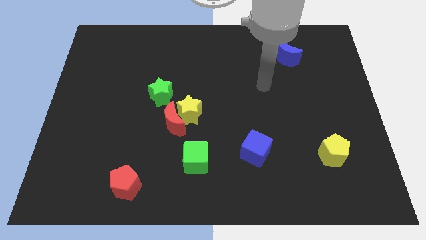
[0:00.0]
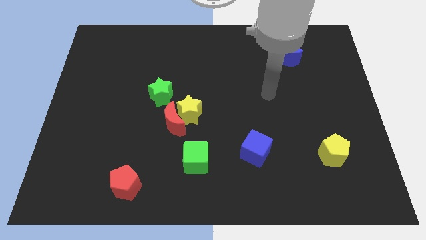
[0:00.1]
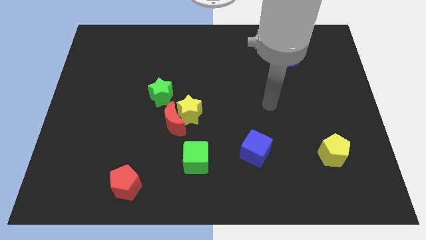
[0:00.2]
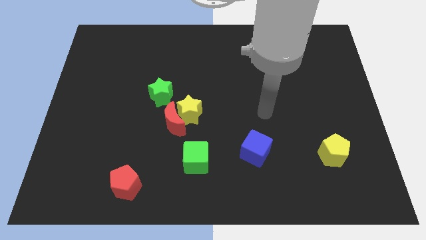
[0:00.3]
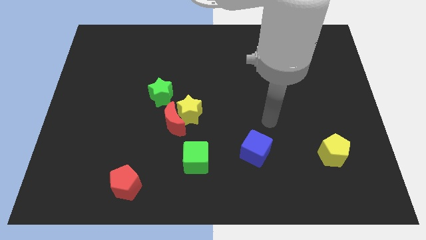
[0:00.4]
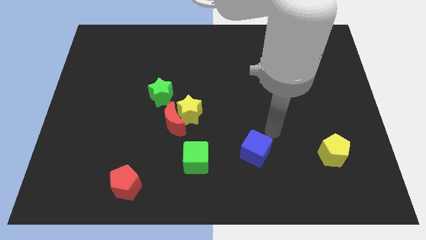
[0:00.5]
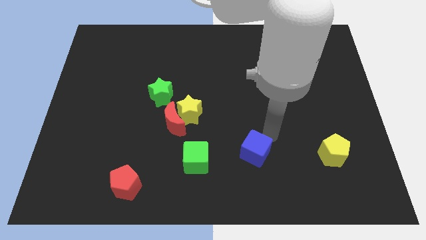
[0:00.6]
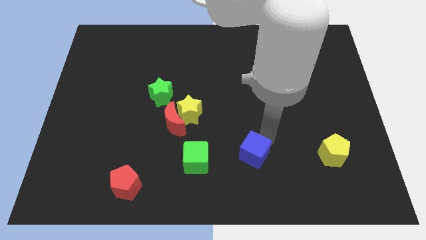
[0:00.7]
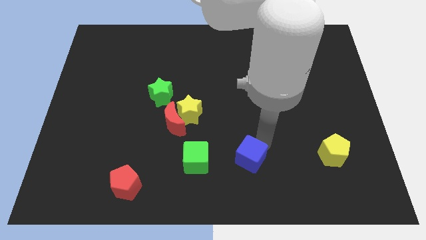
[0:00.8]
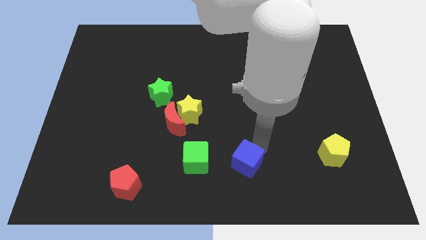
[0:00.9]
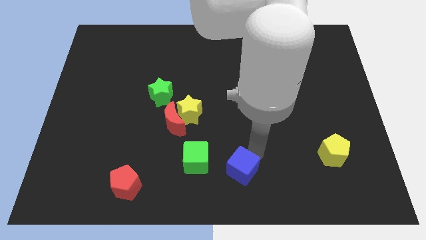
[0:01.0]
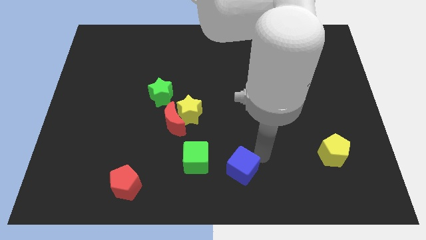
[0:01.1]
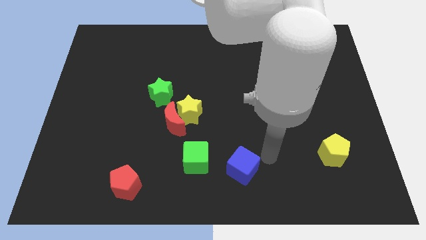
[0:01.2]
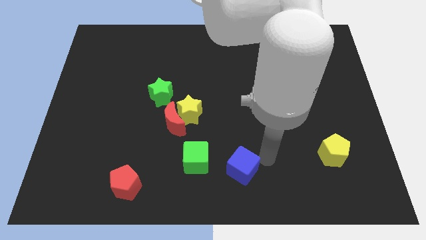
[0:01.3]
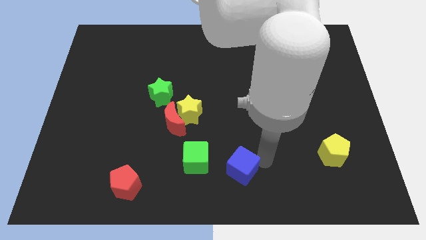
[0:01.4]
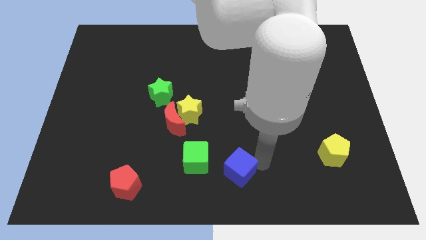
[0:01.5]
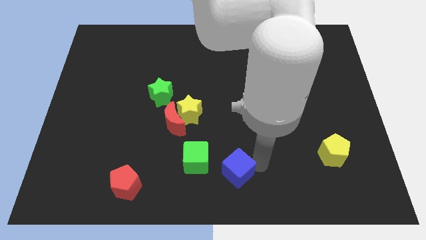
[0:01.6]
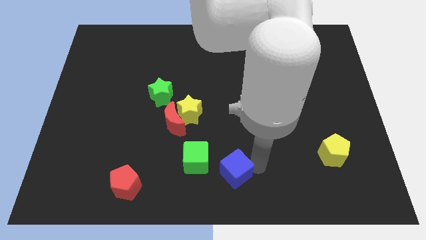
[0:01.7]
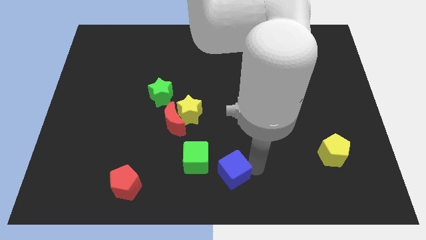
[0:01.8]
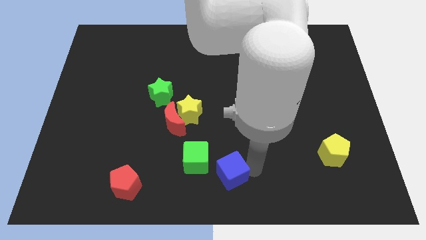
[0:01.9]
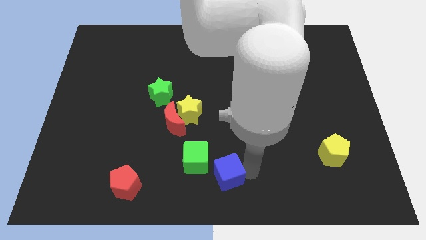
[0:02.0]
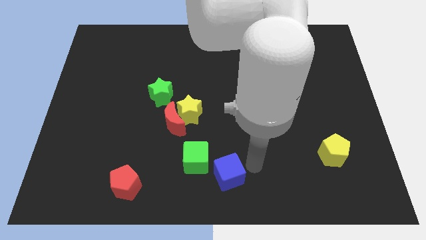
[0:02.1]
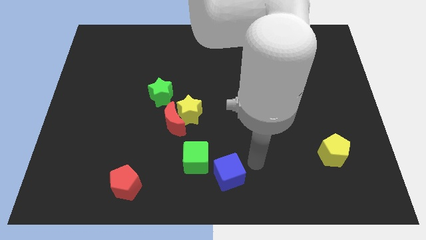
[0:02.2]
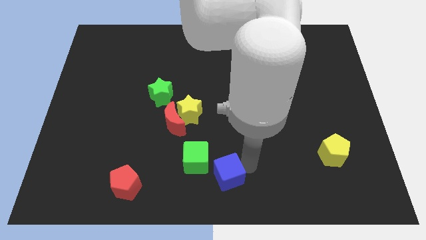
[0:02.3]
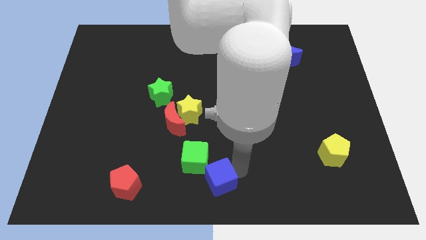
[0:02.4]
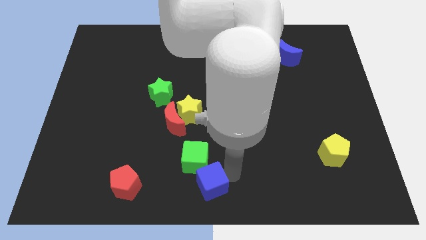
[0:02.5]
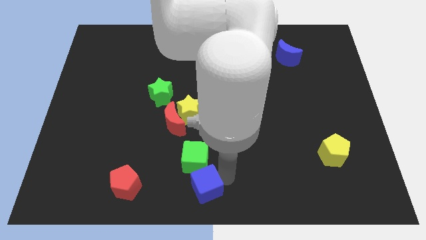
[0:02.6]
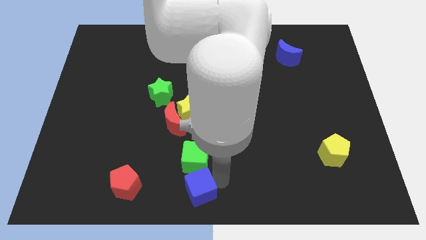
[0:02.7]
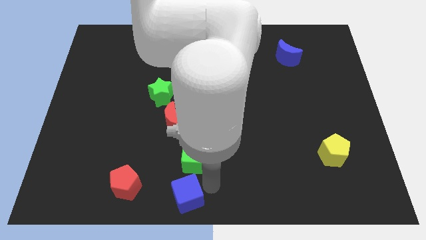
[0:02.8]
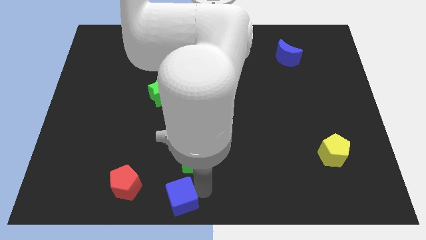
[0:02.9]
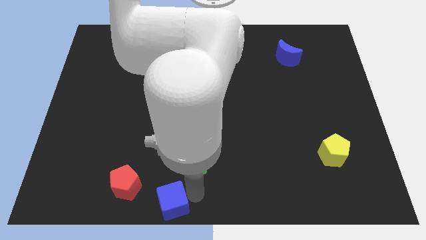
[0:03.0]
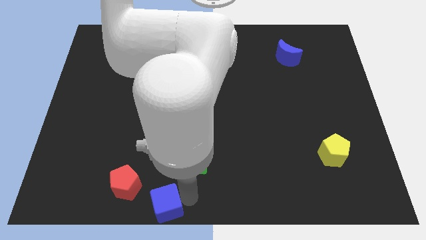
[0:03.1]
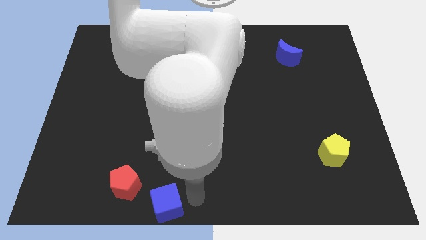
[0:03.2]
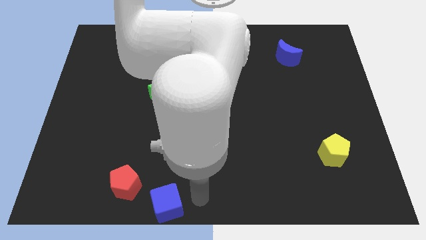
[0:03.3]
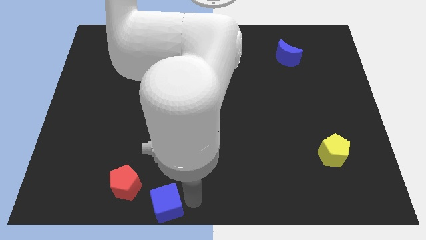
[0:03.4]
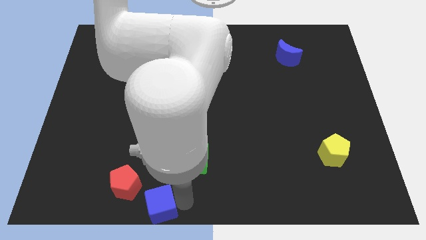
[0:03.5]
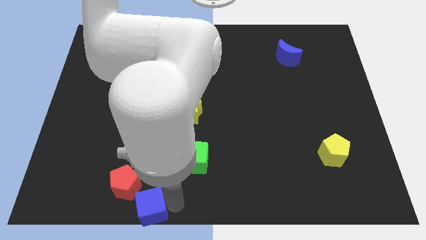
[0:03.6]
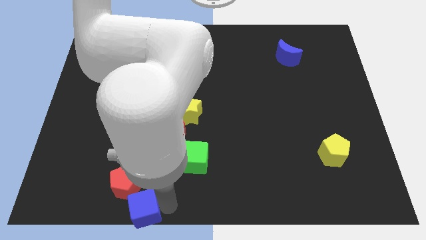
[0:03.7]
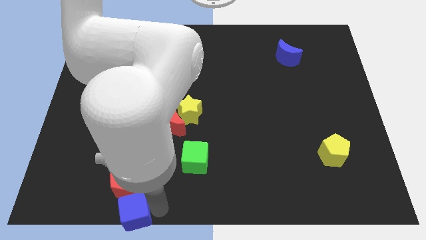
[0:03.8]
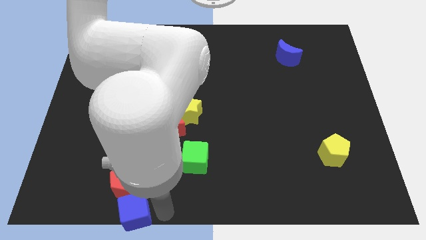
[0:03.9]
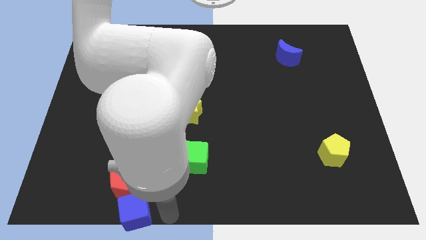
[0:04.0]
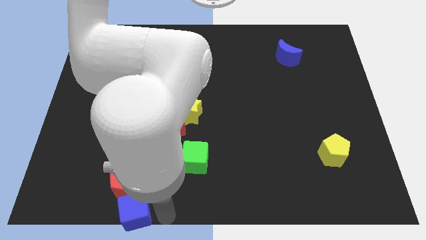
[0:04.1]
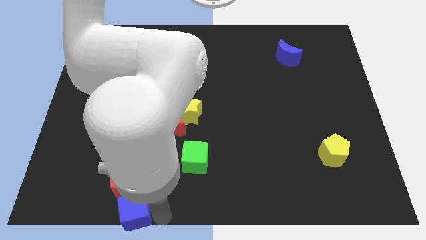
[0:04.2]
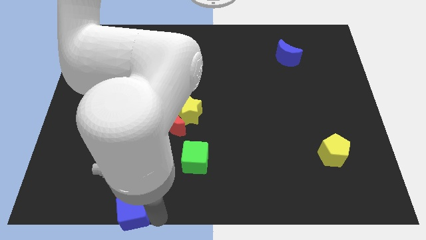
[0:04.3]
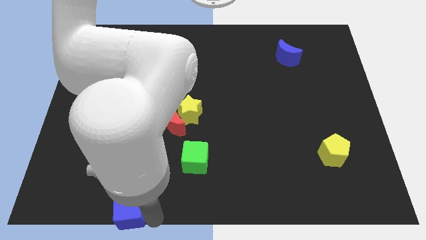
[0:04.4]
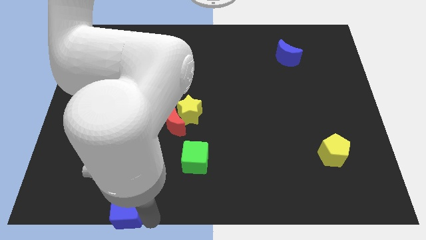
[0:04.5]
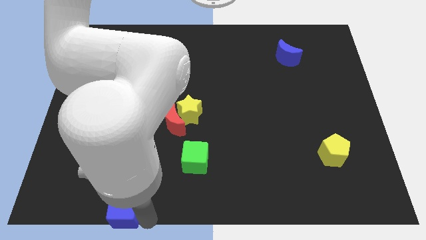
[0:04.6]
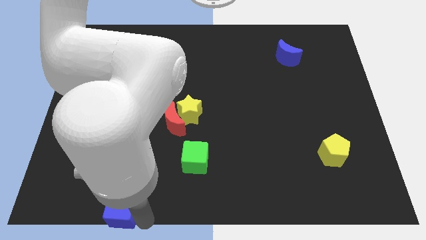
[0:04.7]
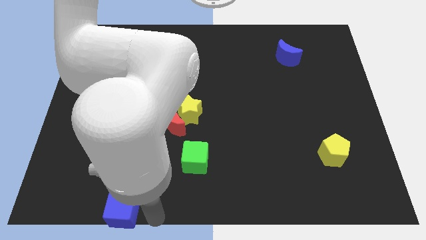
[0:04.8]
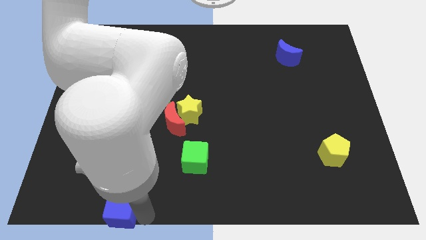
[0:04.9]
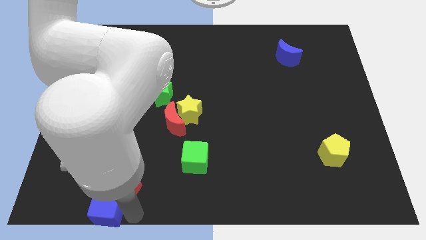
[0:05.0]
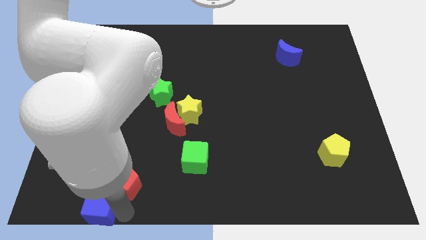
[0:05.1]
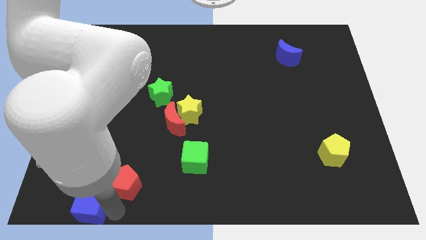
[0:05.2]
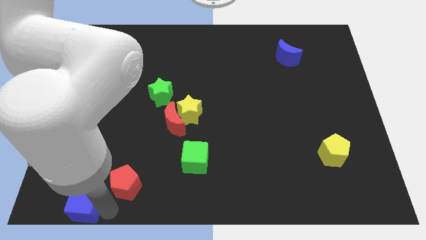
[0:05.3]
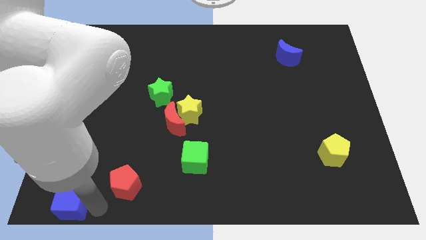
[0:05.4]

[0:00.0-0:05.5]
move the blue cube to the bottom left

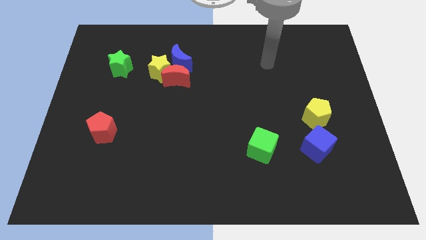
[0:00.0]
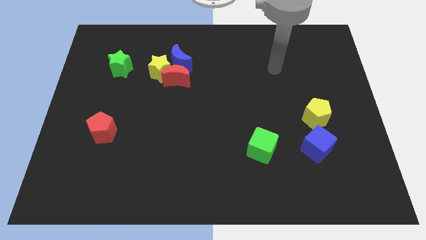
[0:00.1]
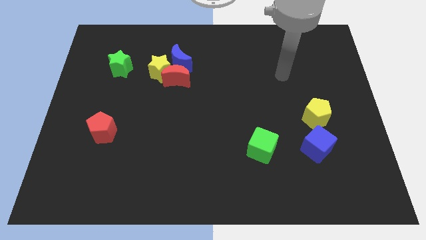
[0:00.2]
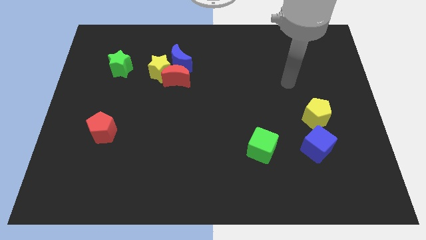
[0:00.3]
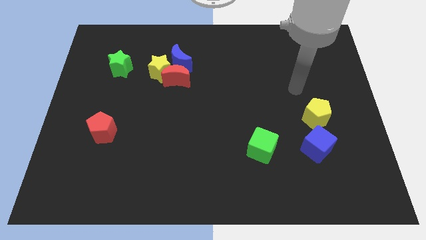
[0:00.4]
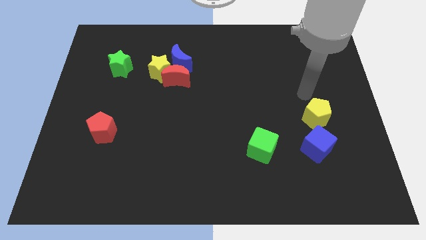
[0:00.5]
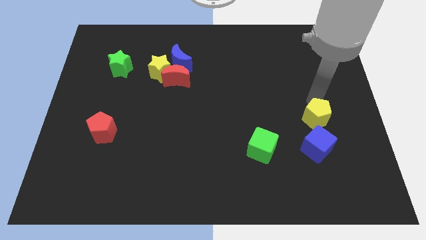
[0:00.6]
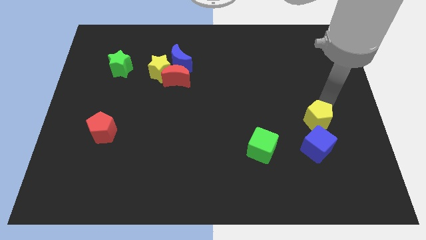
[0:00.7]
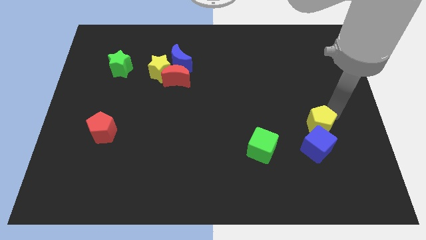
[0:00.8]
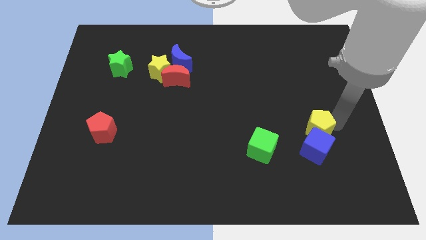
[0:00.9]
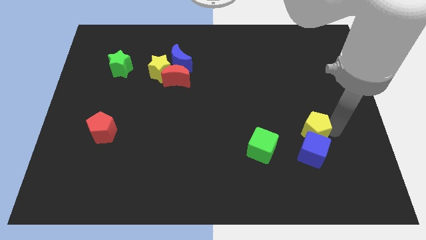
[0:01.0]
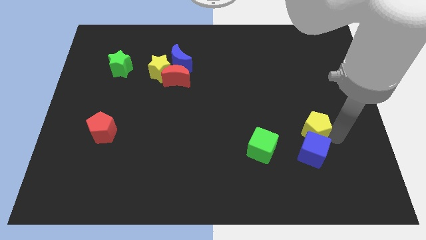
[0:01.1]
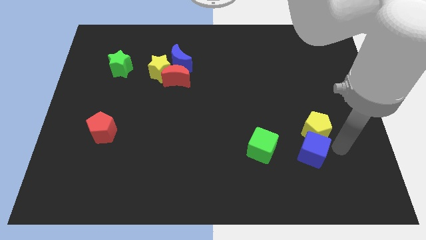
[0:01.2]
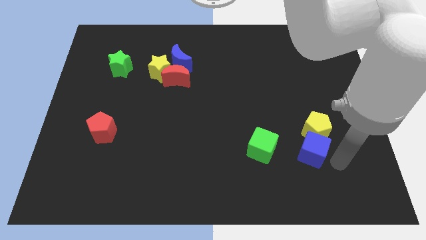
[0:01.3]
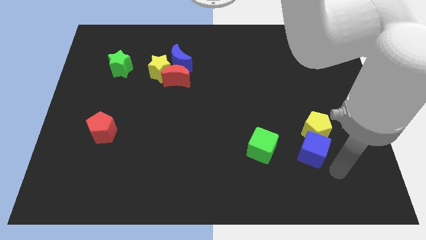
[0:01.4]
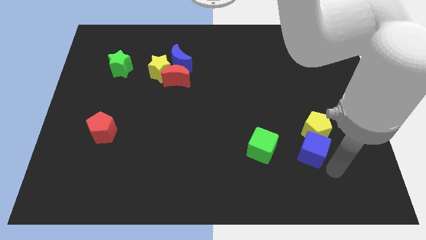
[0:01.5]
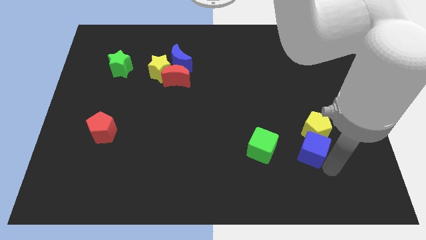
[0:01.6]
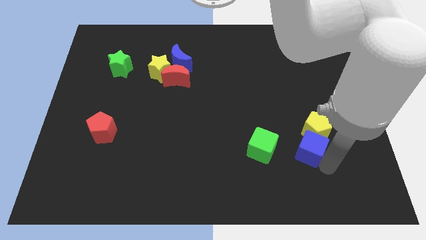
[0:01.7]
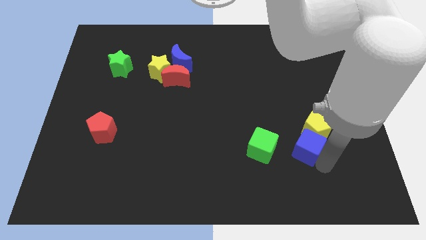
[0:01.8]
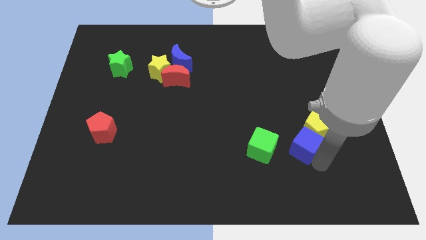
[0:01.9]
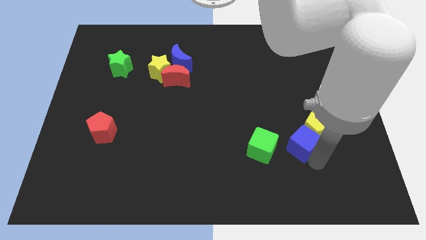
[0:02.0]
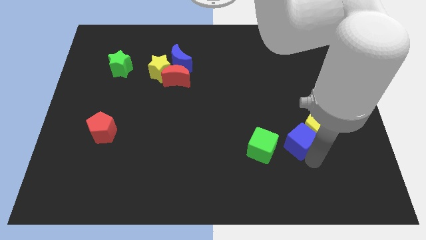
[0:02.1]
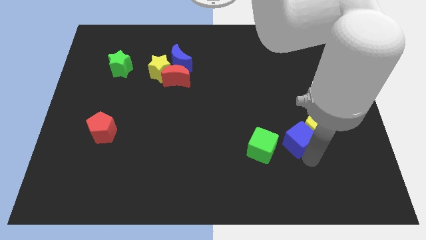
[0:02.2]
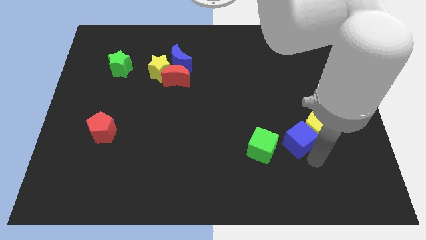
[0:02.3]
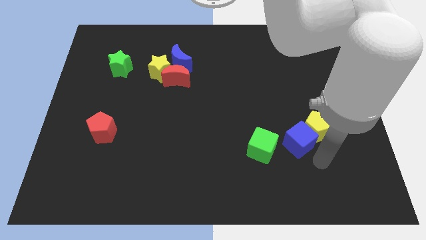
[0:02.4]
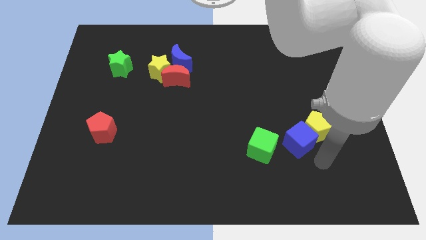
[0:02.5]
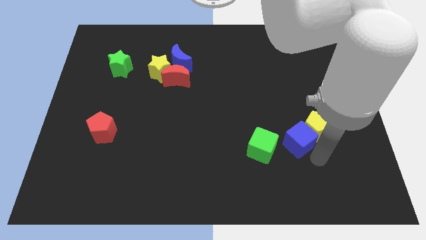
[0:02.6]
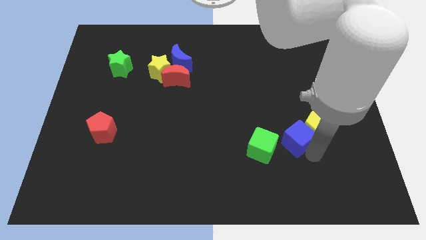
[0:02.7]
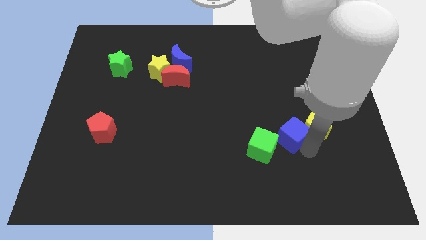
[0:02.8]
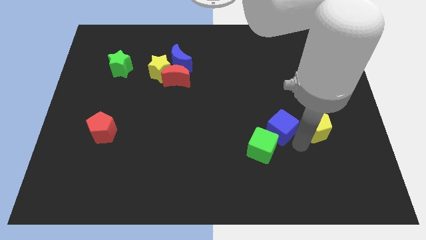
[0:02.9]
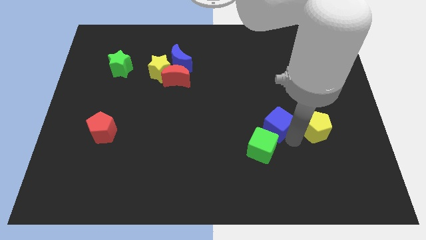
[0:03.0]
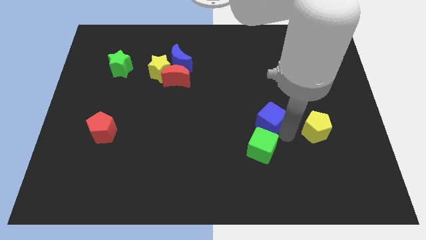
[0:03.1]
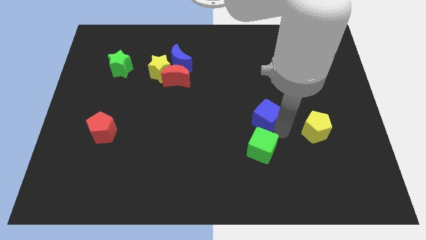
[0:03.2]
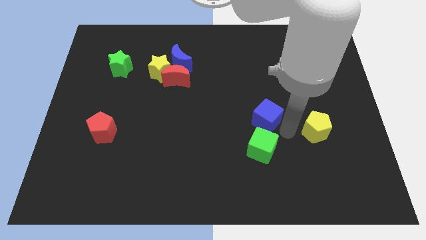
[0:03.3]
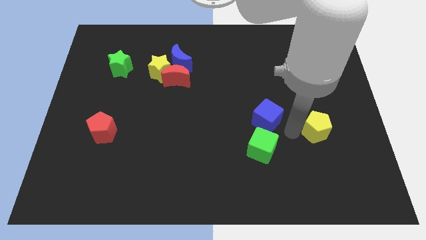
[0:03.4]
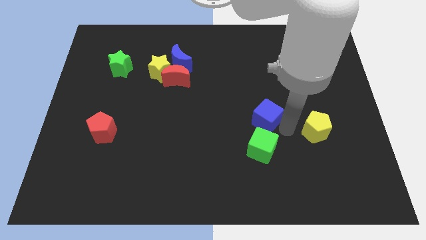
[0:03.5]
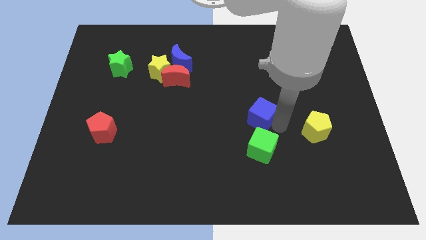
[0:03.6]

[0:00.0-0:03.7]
move the blue cube to the middle
